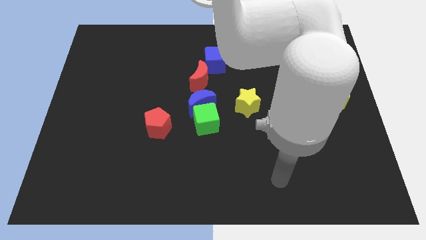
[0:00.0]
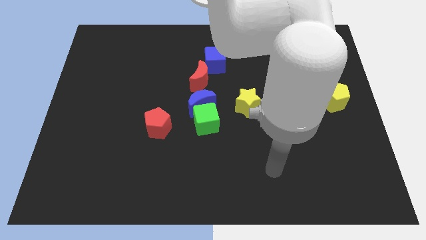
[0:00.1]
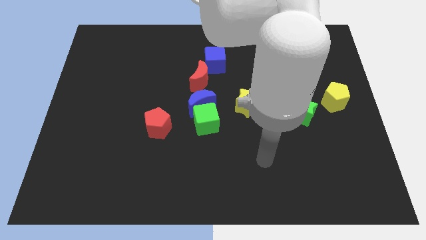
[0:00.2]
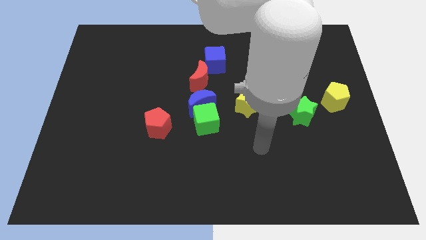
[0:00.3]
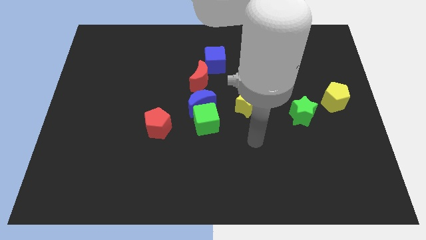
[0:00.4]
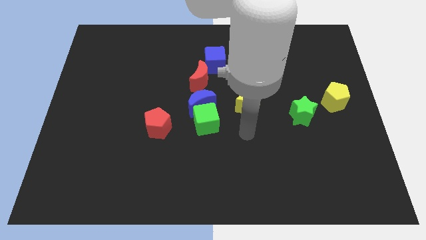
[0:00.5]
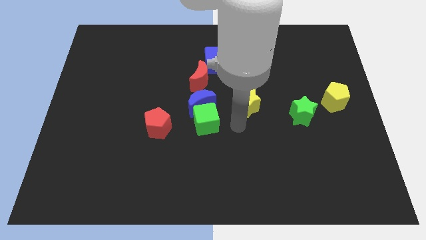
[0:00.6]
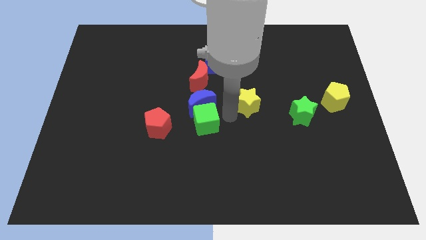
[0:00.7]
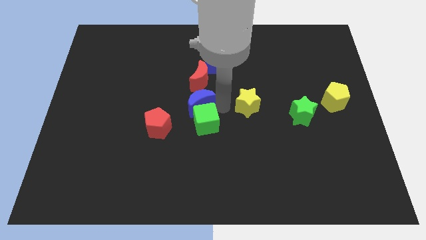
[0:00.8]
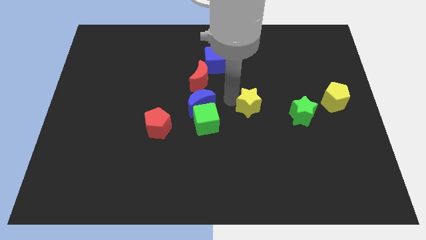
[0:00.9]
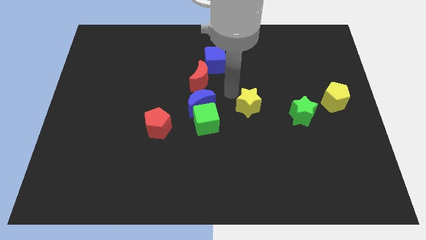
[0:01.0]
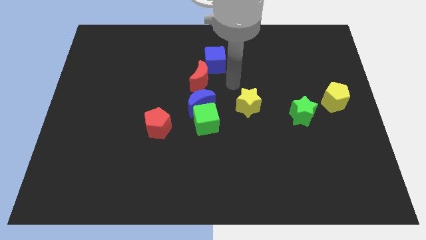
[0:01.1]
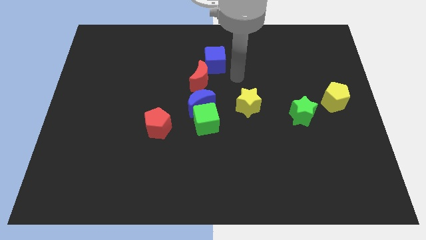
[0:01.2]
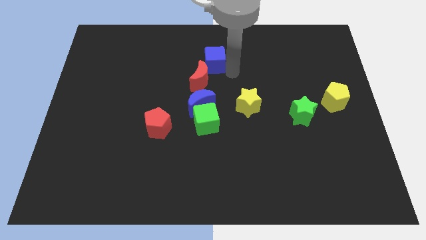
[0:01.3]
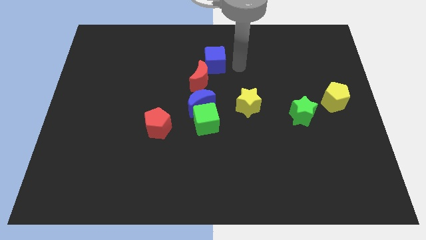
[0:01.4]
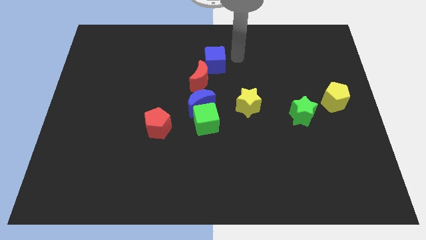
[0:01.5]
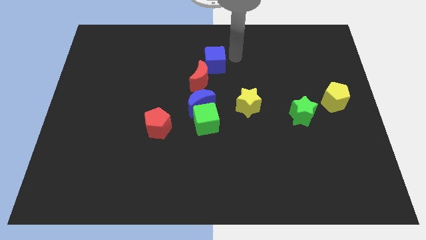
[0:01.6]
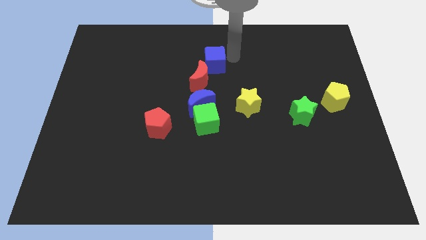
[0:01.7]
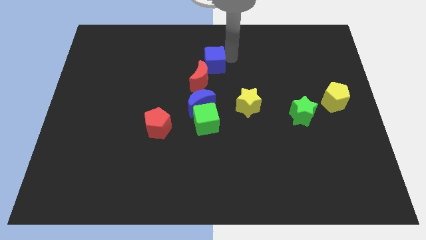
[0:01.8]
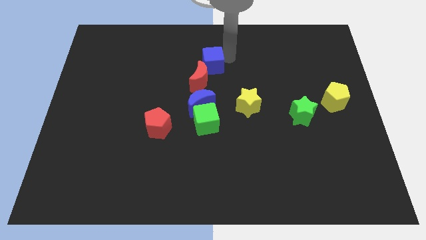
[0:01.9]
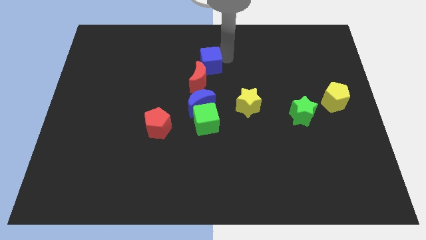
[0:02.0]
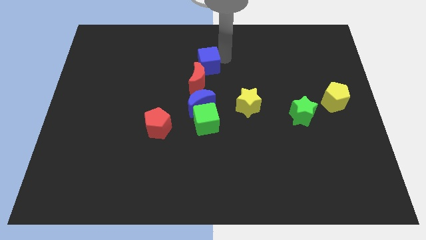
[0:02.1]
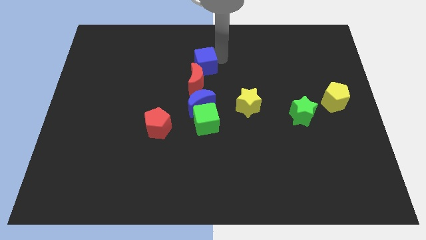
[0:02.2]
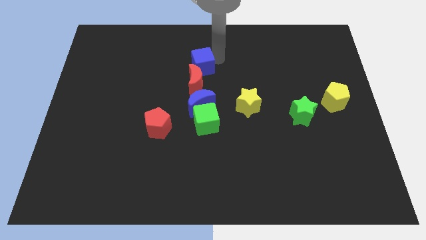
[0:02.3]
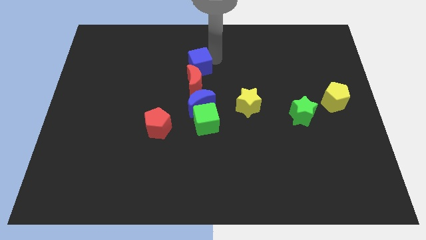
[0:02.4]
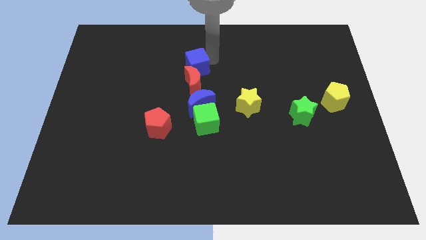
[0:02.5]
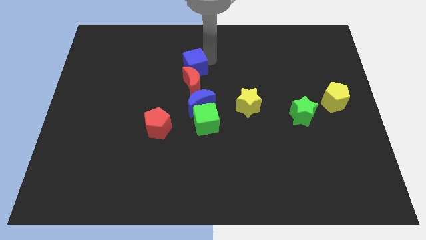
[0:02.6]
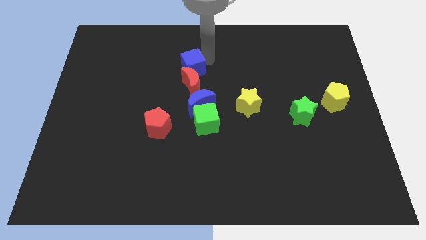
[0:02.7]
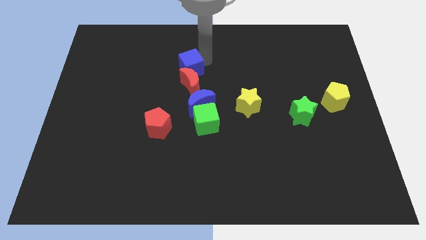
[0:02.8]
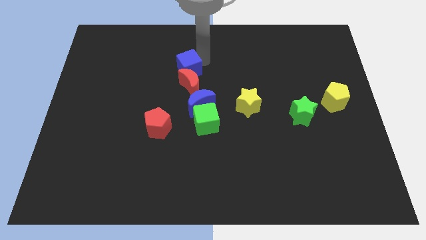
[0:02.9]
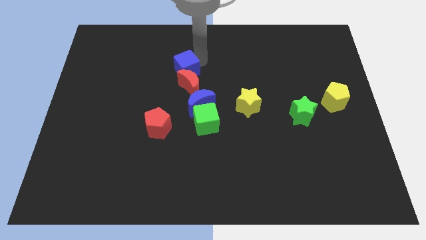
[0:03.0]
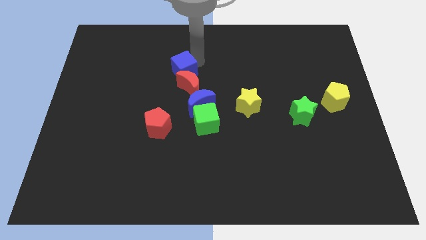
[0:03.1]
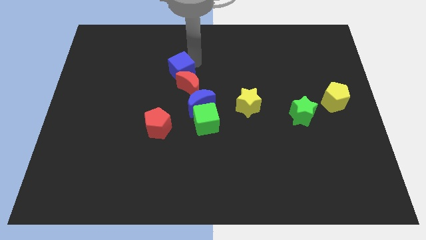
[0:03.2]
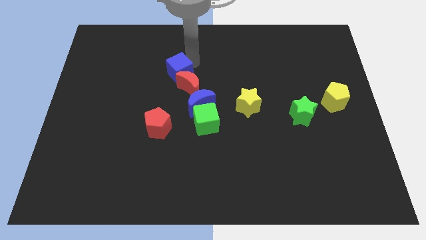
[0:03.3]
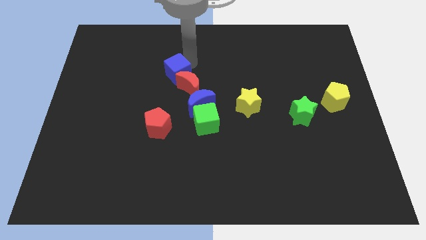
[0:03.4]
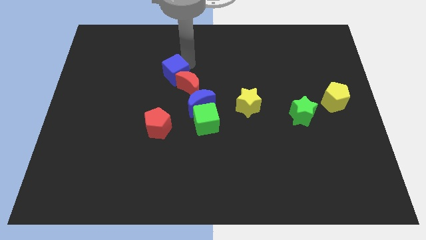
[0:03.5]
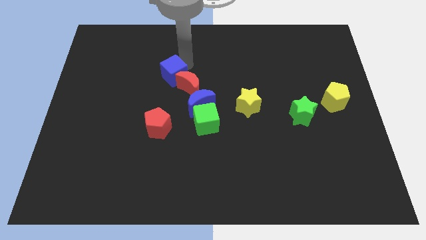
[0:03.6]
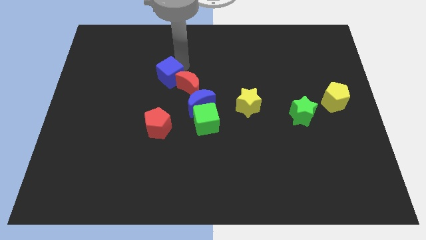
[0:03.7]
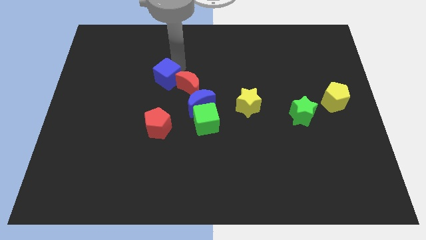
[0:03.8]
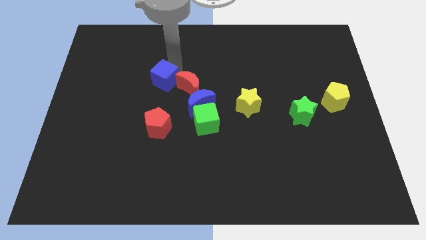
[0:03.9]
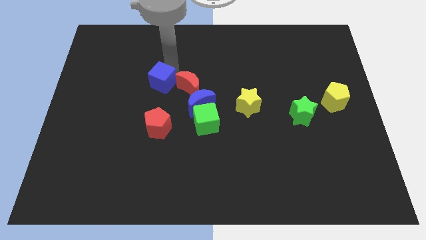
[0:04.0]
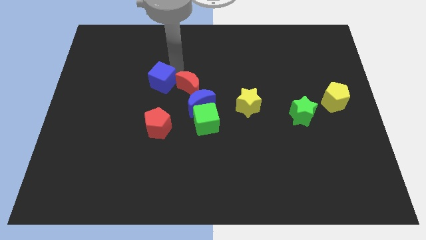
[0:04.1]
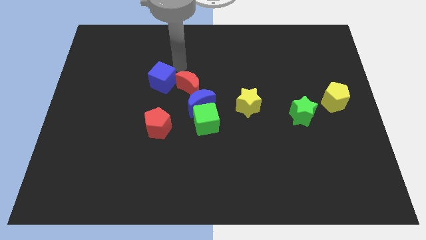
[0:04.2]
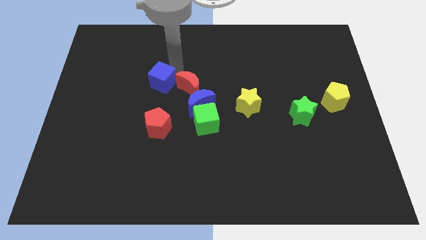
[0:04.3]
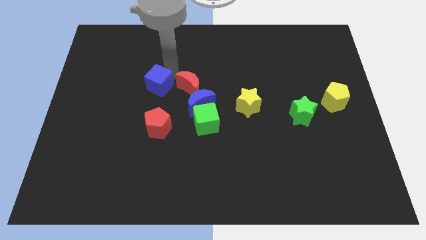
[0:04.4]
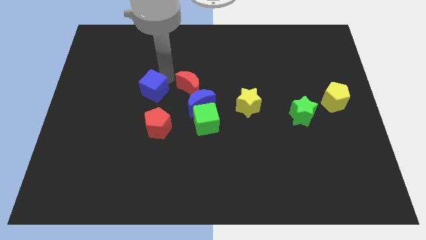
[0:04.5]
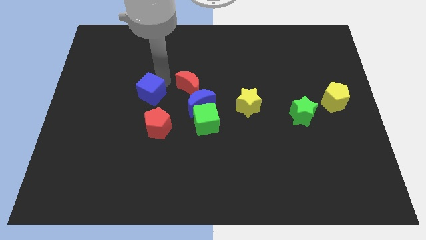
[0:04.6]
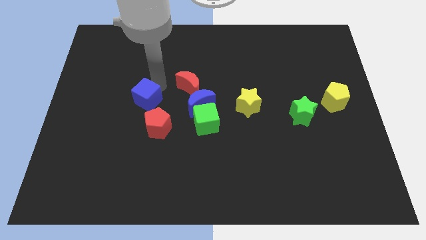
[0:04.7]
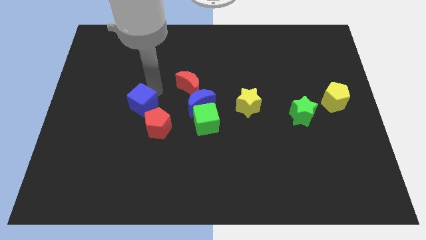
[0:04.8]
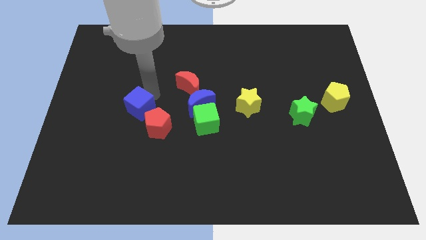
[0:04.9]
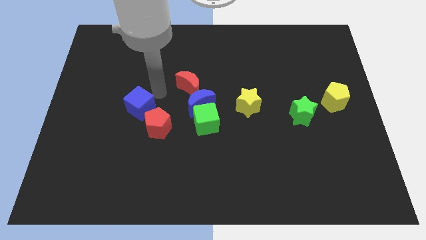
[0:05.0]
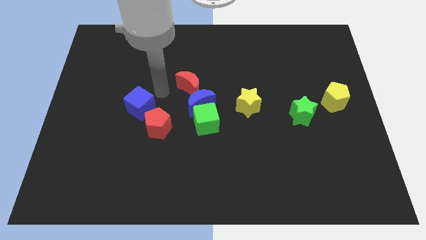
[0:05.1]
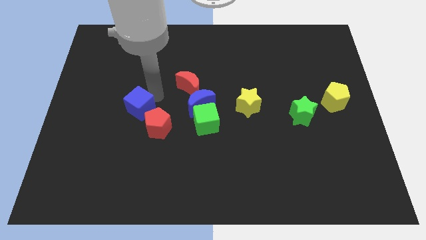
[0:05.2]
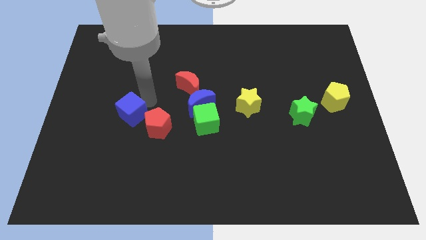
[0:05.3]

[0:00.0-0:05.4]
push the blue cube just left of the red pentagon

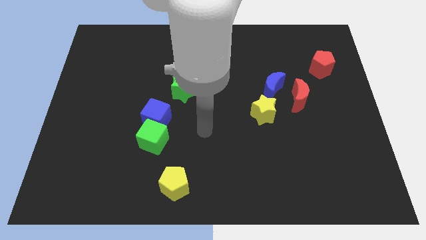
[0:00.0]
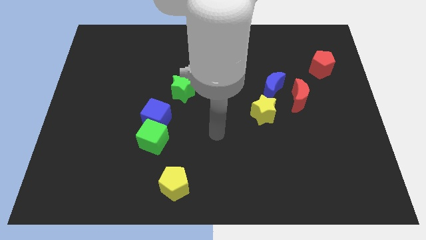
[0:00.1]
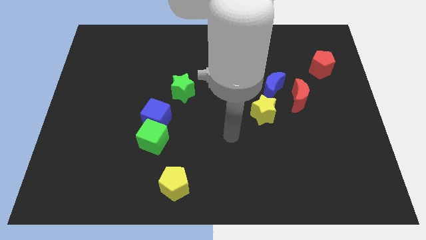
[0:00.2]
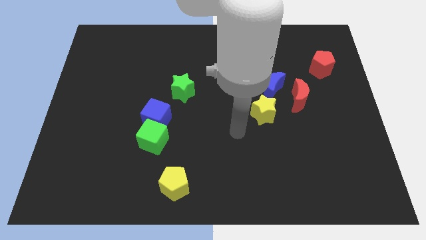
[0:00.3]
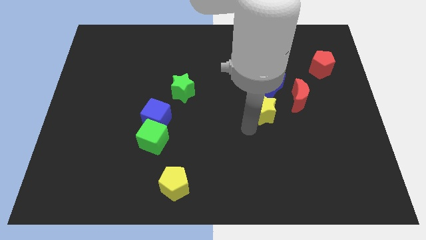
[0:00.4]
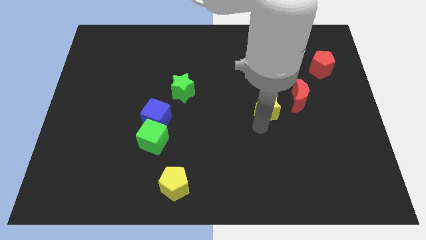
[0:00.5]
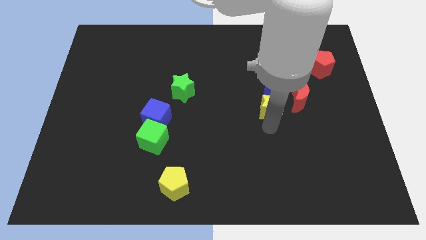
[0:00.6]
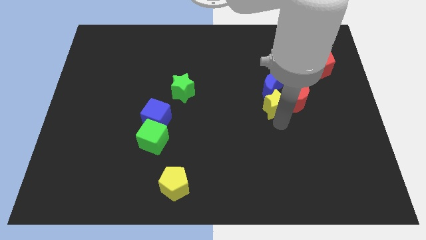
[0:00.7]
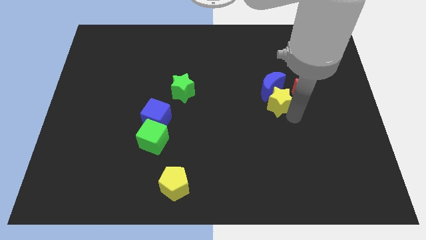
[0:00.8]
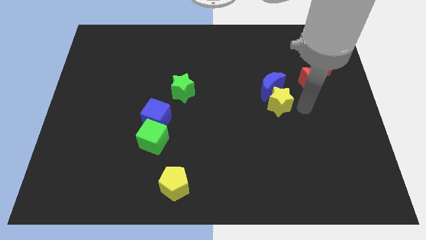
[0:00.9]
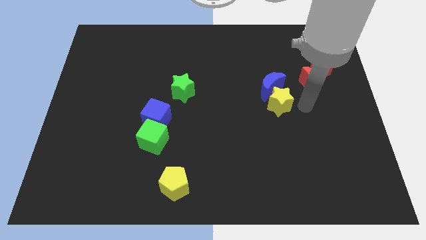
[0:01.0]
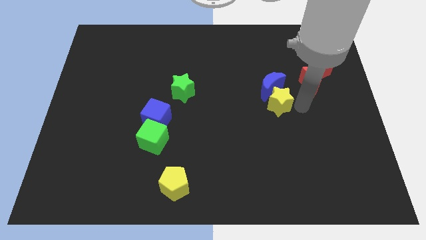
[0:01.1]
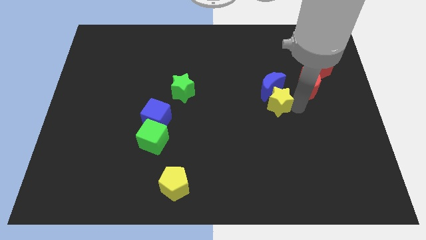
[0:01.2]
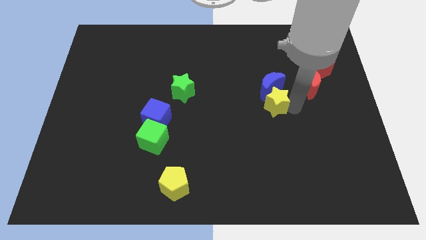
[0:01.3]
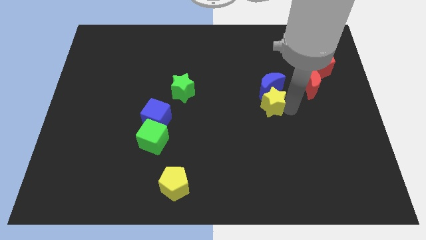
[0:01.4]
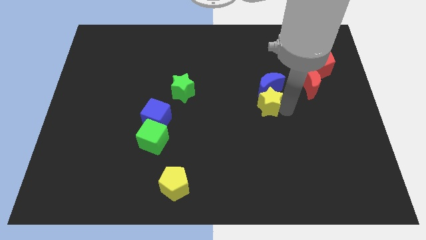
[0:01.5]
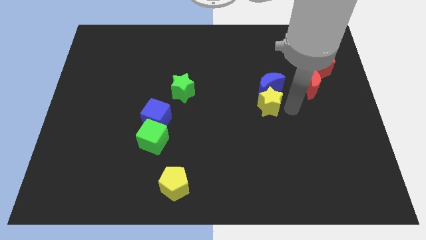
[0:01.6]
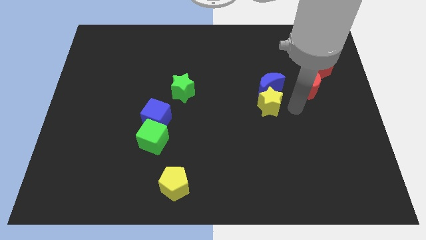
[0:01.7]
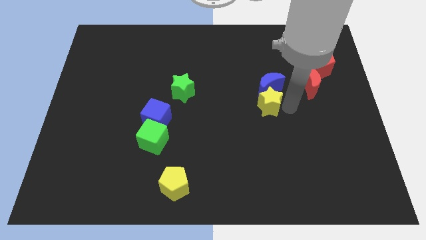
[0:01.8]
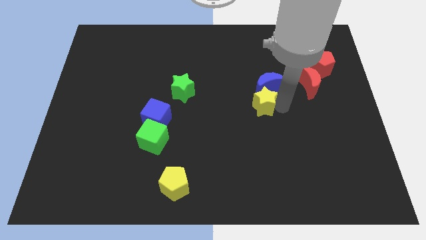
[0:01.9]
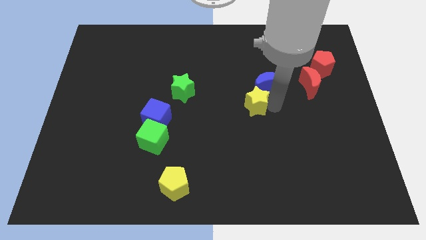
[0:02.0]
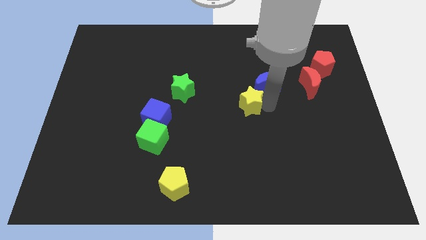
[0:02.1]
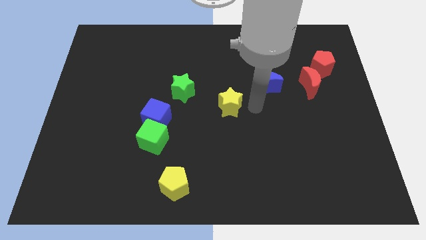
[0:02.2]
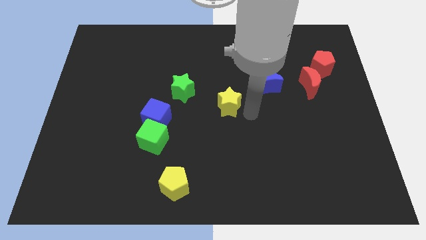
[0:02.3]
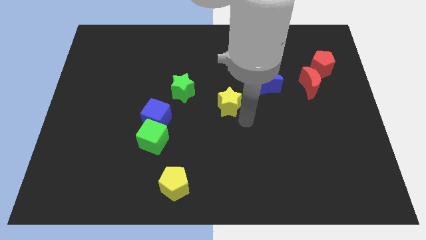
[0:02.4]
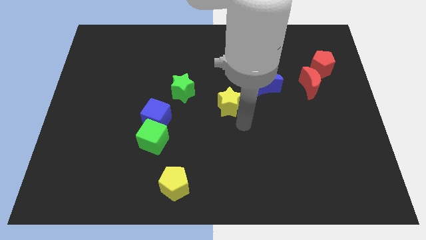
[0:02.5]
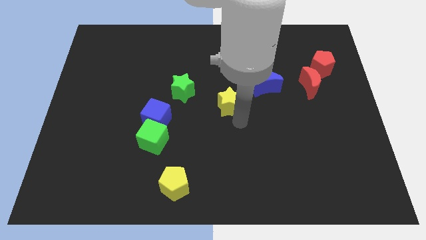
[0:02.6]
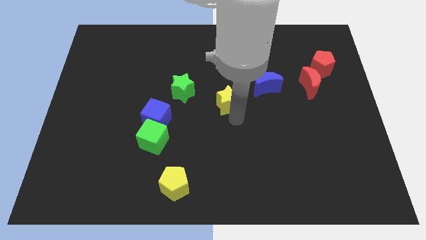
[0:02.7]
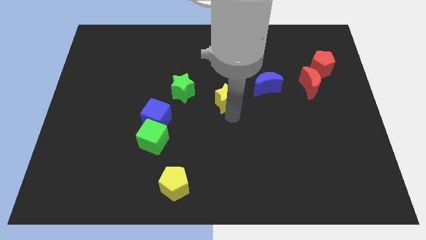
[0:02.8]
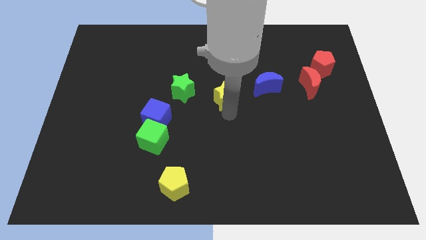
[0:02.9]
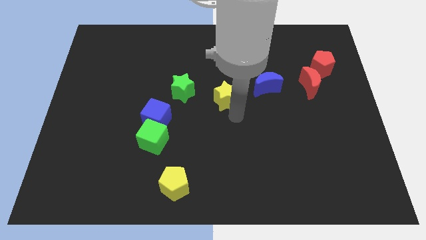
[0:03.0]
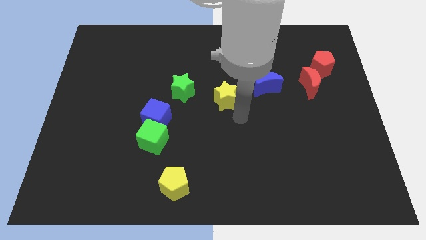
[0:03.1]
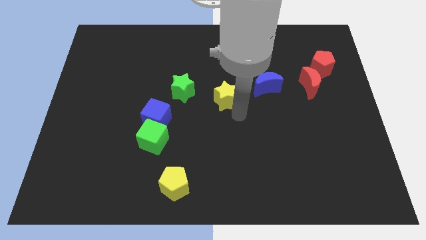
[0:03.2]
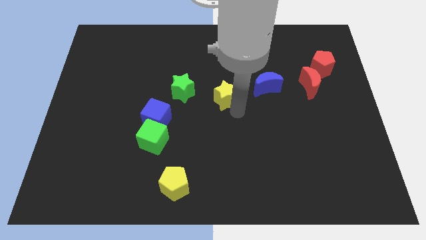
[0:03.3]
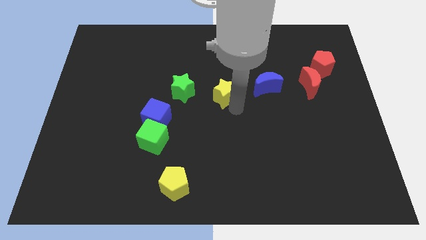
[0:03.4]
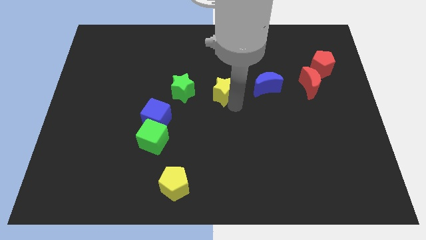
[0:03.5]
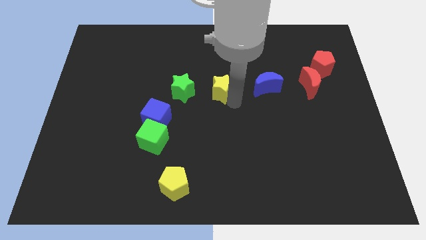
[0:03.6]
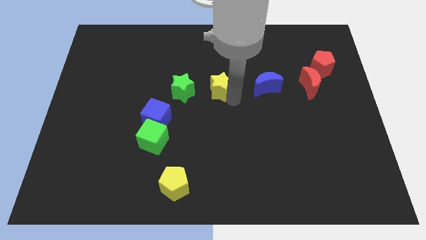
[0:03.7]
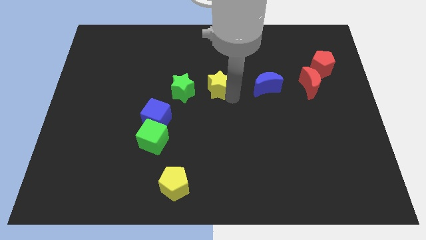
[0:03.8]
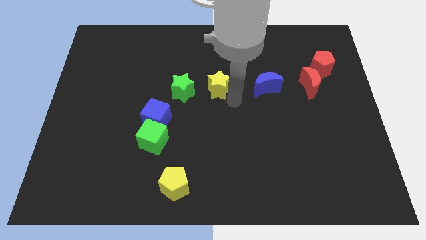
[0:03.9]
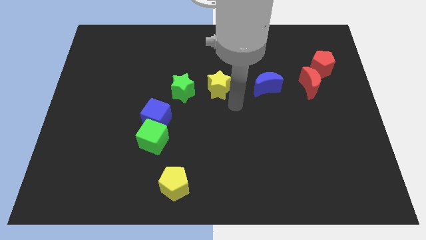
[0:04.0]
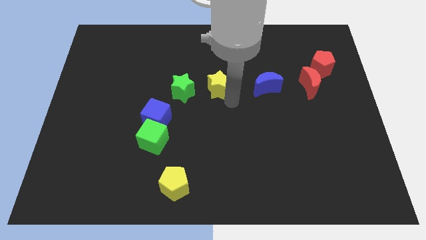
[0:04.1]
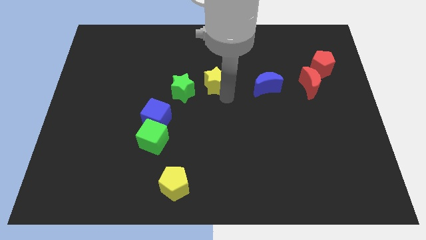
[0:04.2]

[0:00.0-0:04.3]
slide the yellow star to the top right of the green star
